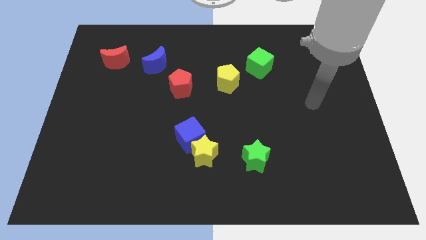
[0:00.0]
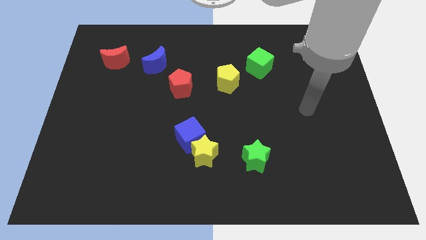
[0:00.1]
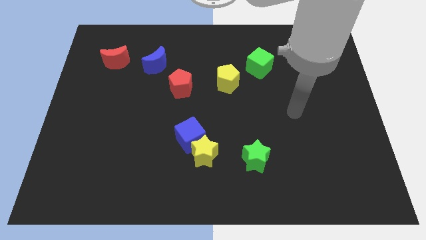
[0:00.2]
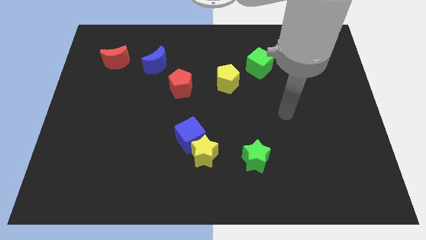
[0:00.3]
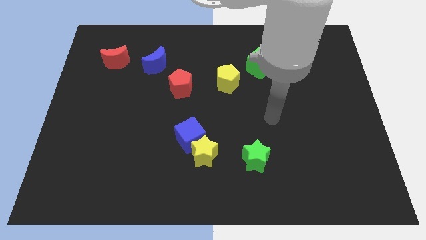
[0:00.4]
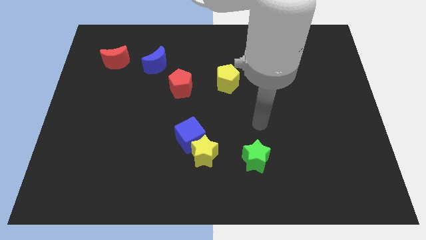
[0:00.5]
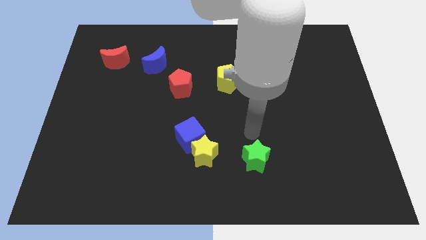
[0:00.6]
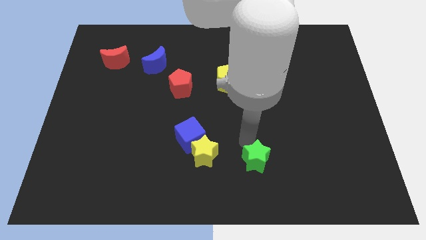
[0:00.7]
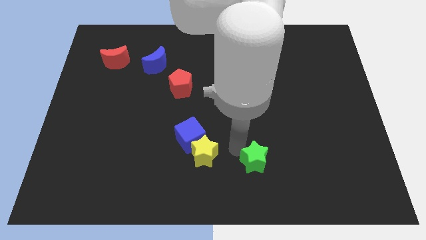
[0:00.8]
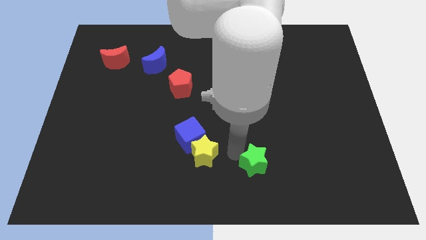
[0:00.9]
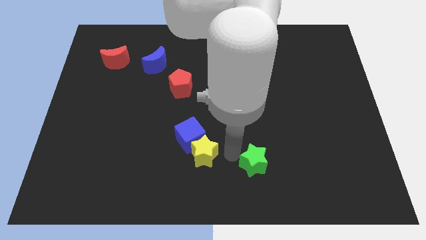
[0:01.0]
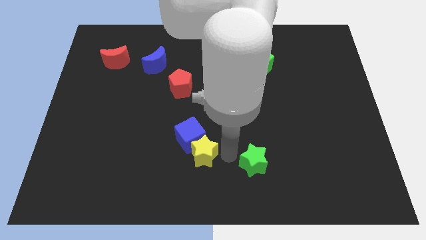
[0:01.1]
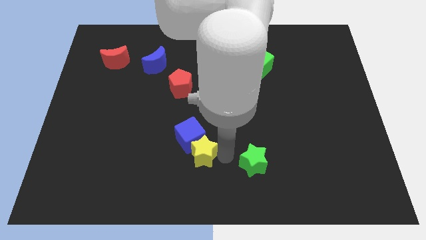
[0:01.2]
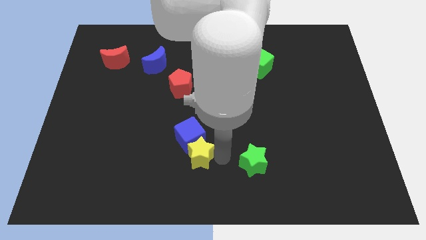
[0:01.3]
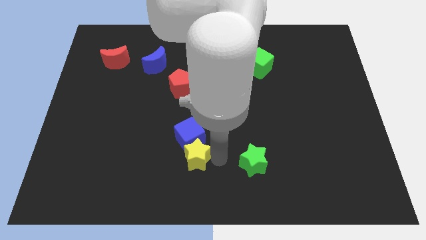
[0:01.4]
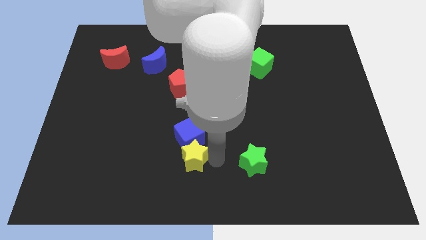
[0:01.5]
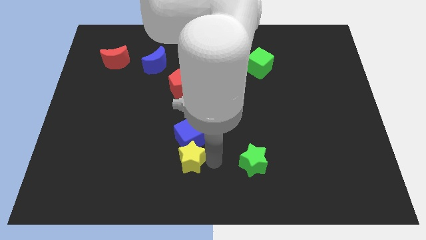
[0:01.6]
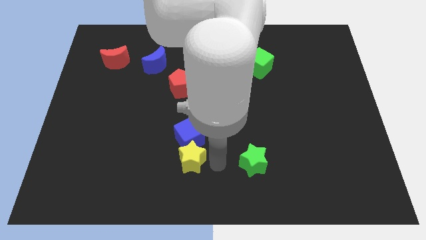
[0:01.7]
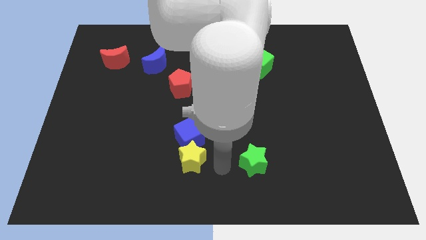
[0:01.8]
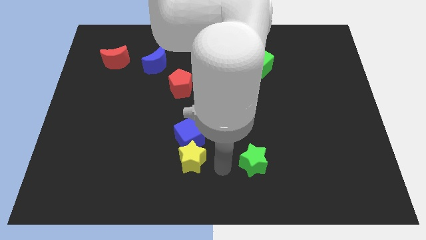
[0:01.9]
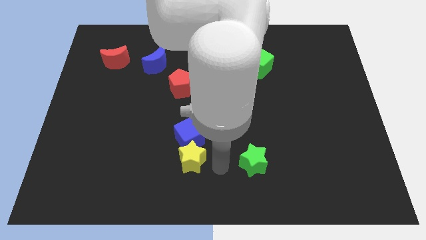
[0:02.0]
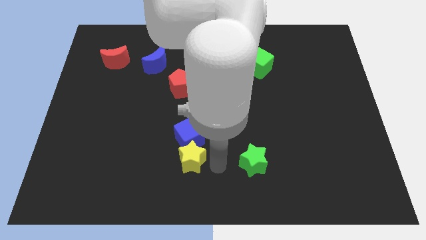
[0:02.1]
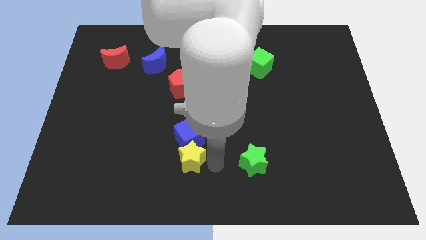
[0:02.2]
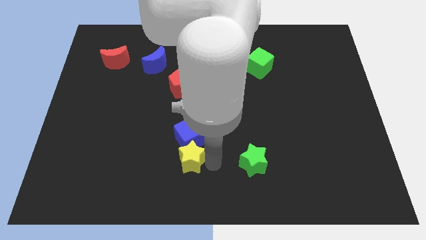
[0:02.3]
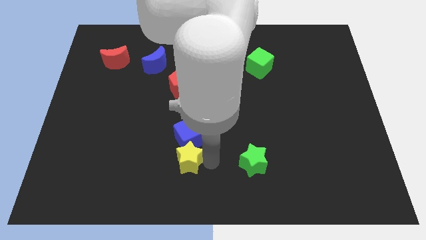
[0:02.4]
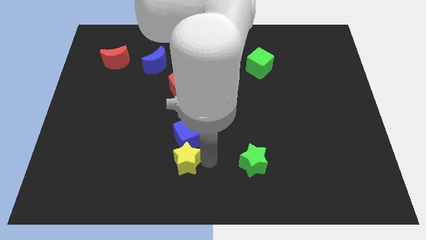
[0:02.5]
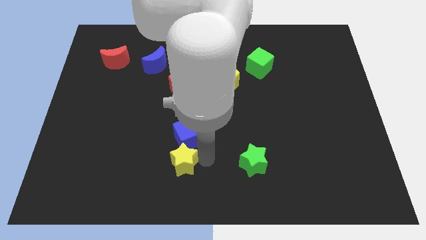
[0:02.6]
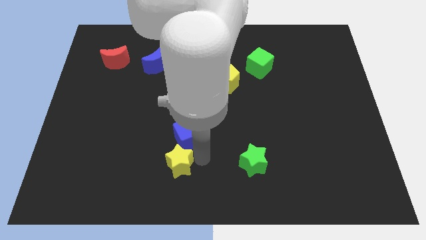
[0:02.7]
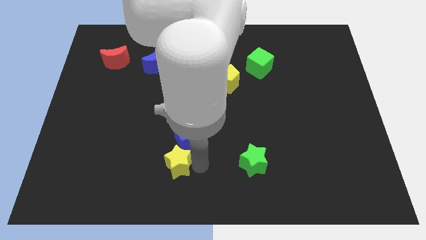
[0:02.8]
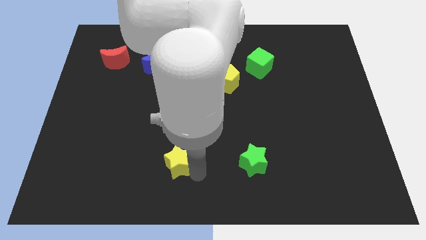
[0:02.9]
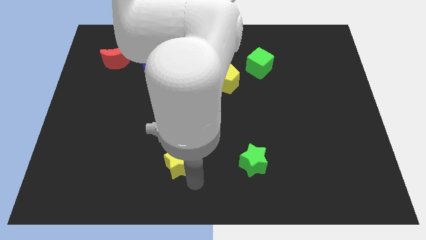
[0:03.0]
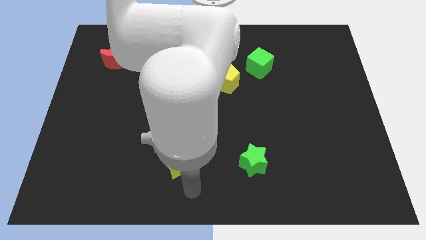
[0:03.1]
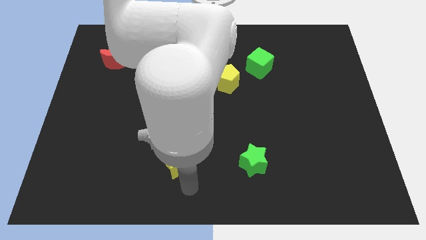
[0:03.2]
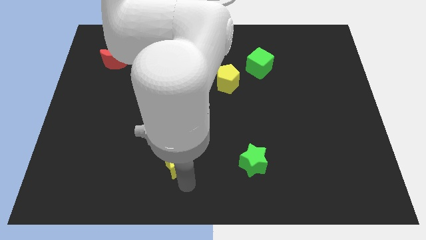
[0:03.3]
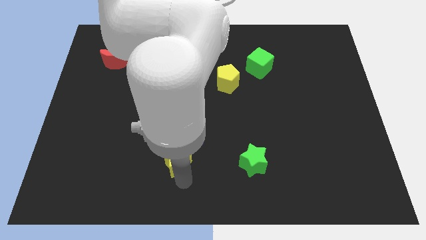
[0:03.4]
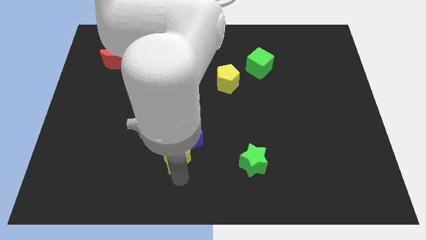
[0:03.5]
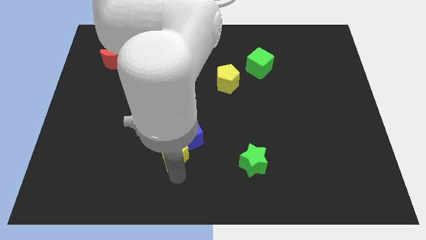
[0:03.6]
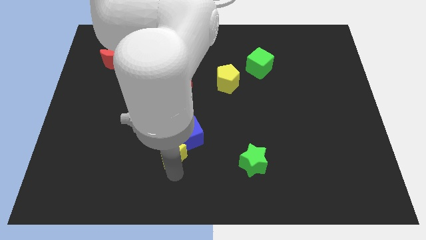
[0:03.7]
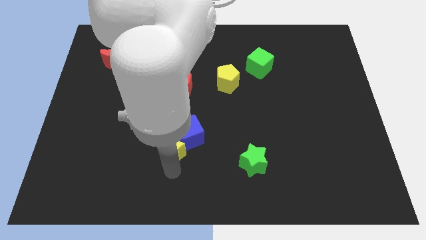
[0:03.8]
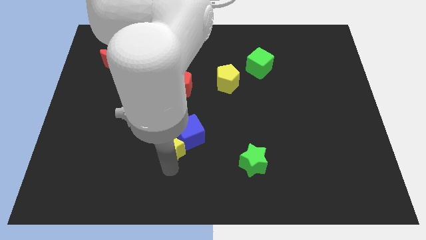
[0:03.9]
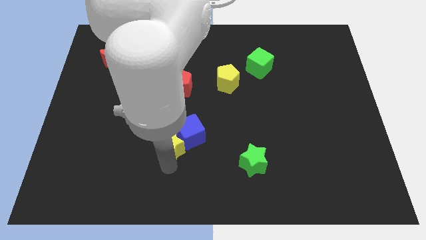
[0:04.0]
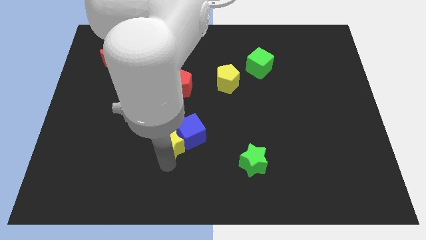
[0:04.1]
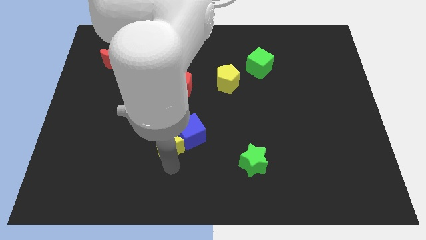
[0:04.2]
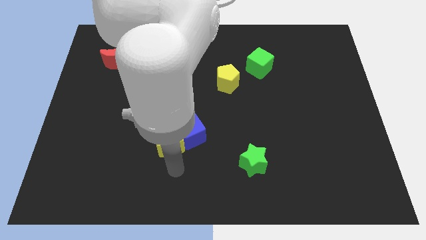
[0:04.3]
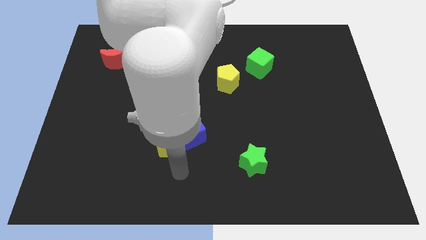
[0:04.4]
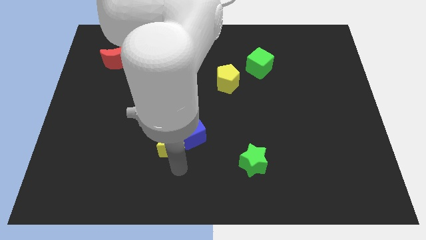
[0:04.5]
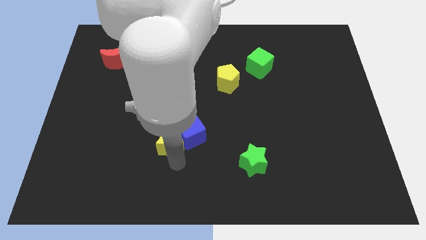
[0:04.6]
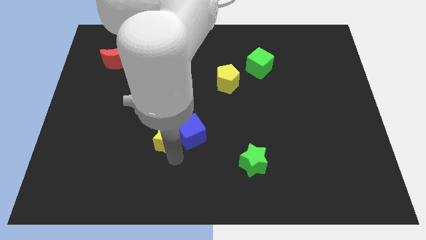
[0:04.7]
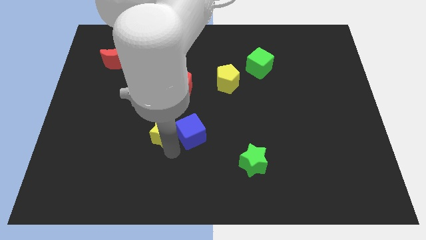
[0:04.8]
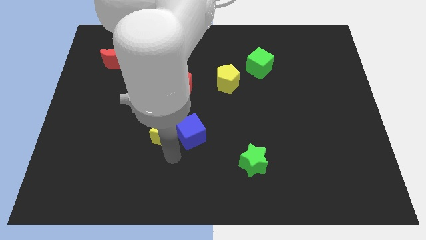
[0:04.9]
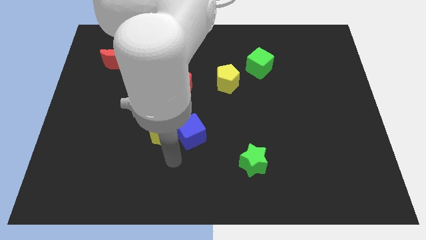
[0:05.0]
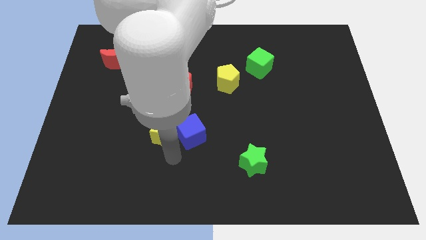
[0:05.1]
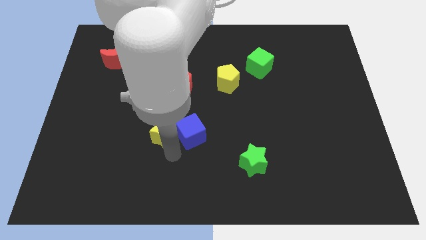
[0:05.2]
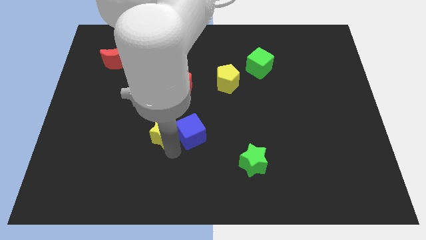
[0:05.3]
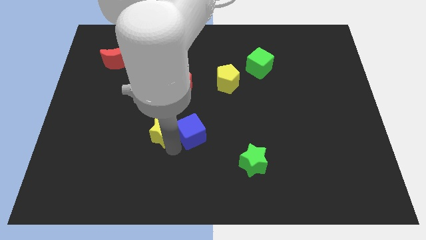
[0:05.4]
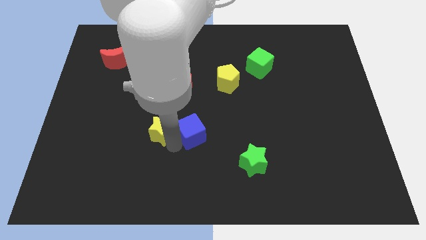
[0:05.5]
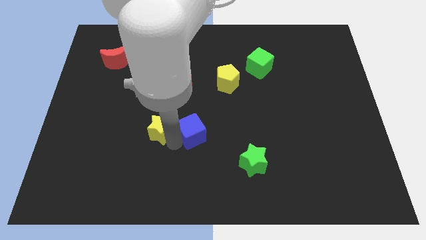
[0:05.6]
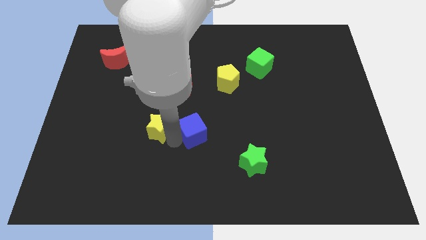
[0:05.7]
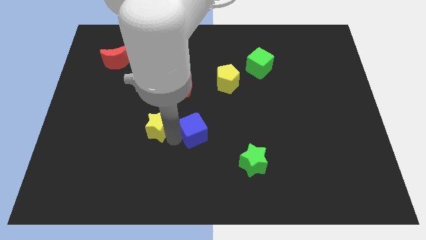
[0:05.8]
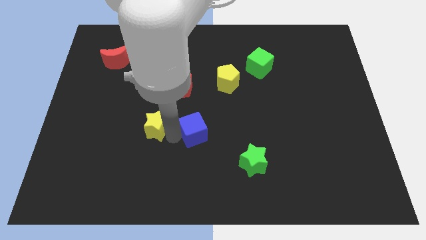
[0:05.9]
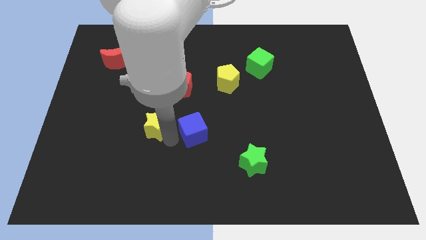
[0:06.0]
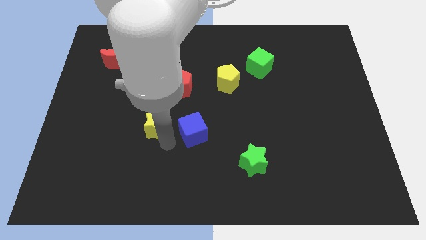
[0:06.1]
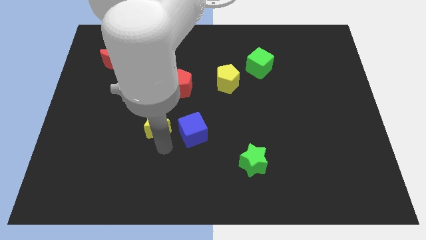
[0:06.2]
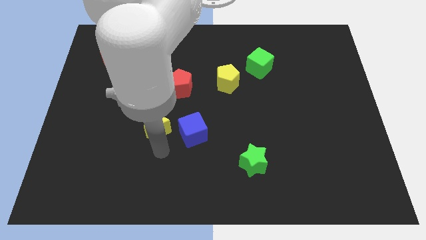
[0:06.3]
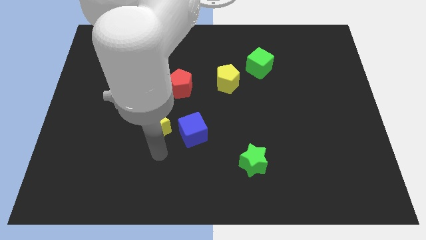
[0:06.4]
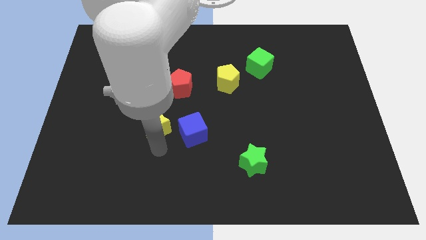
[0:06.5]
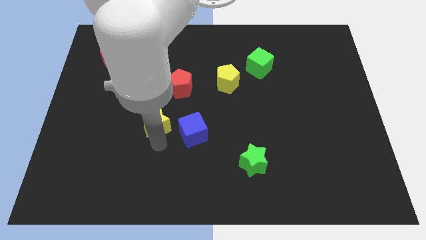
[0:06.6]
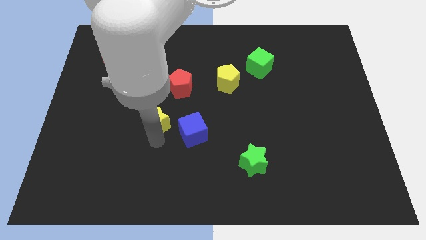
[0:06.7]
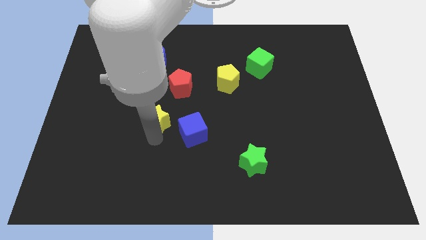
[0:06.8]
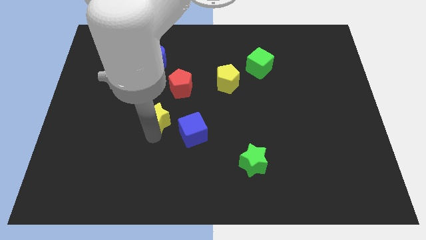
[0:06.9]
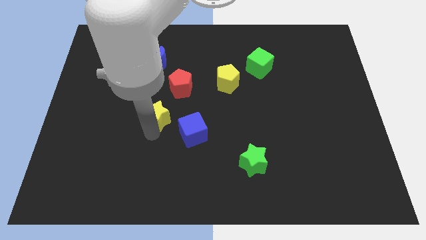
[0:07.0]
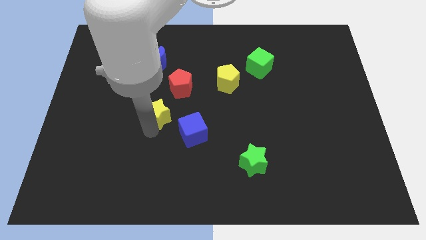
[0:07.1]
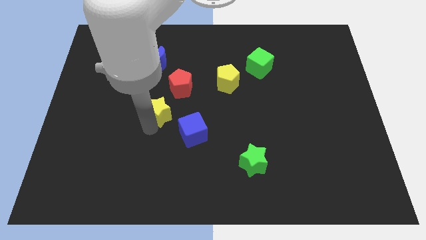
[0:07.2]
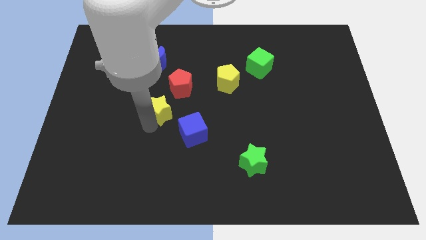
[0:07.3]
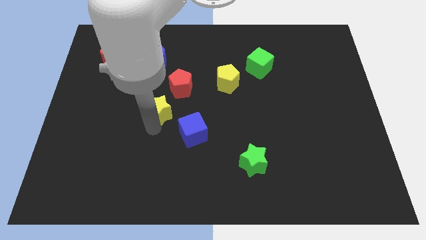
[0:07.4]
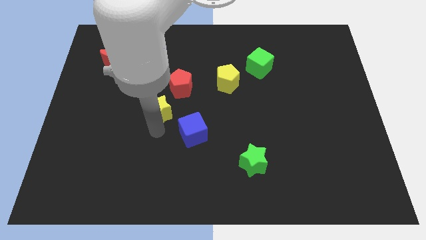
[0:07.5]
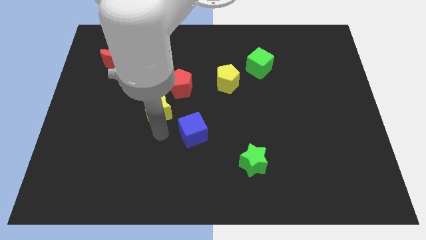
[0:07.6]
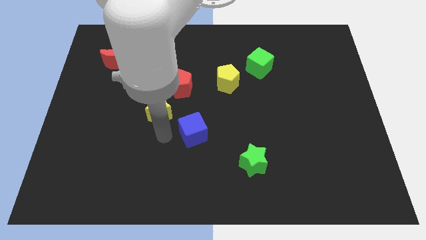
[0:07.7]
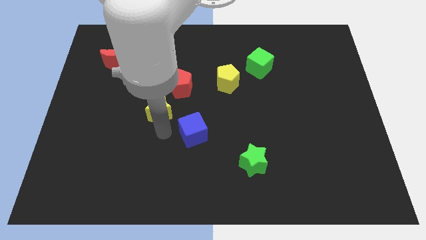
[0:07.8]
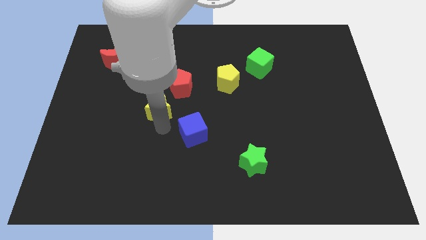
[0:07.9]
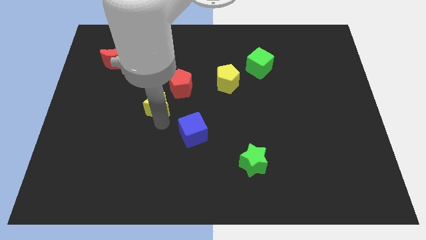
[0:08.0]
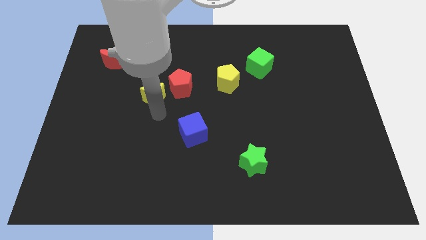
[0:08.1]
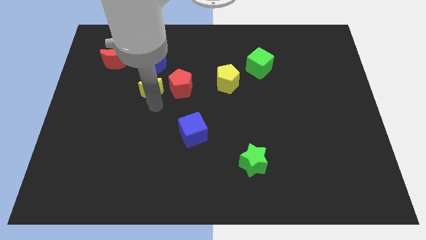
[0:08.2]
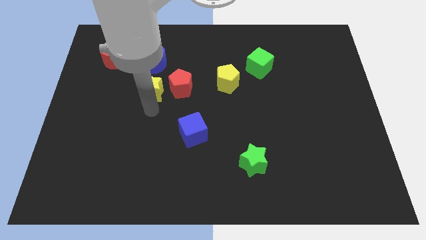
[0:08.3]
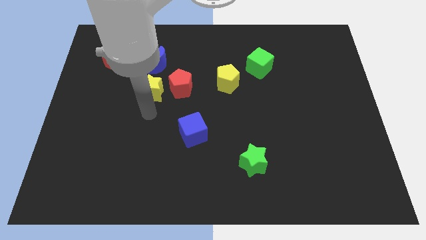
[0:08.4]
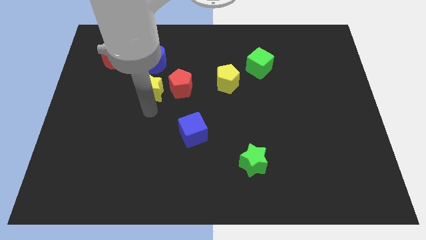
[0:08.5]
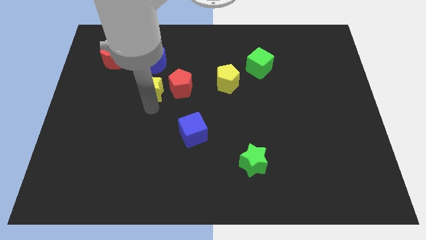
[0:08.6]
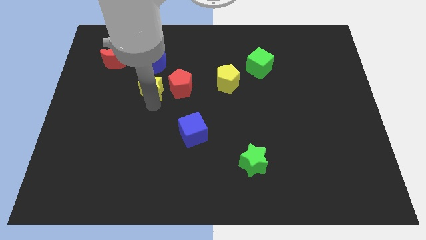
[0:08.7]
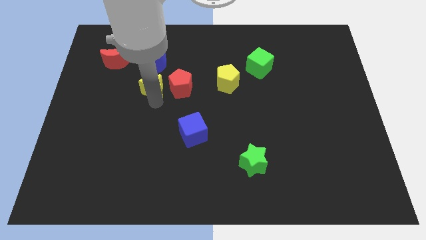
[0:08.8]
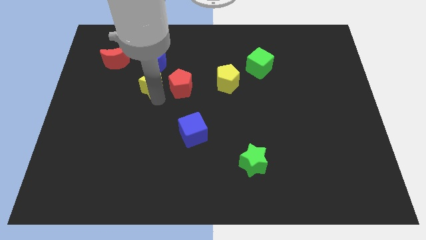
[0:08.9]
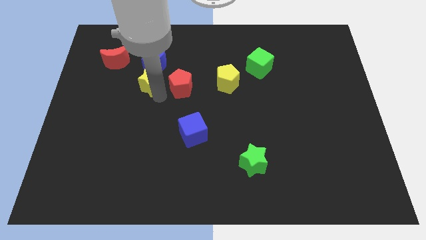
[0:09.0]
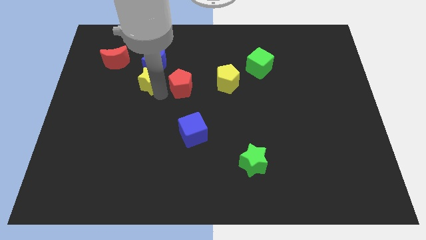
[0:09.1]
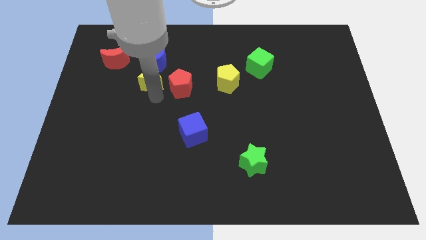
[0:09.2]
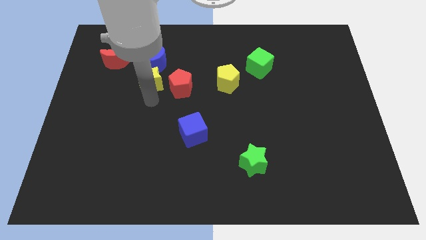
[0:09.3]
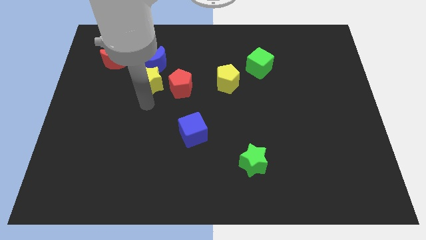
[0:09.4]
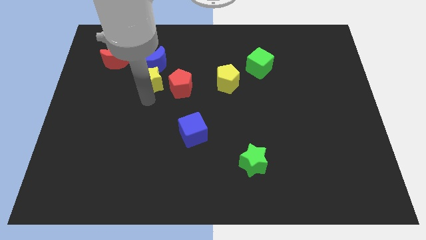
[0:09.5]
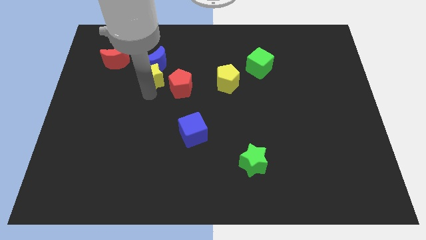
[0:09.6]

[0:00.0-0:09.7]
slide the yellow star next to the blue moon
